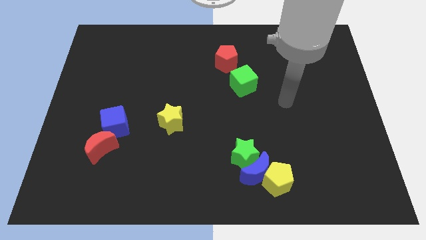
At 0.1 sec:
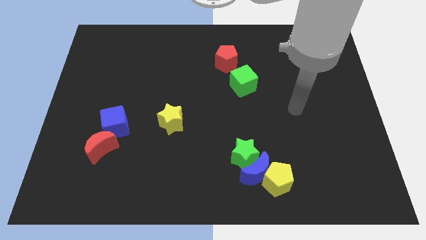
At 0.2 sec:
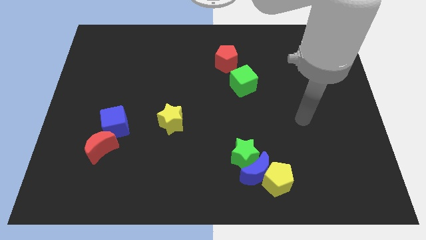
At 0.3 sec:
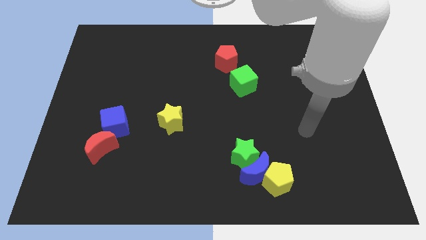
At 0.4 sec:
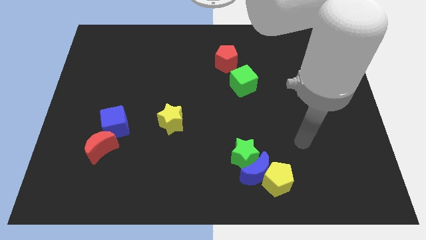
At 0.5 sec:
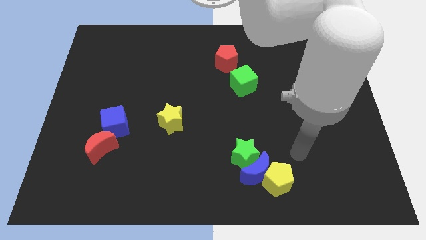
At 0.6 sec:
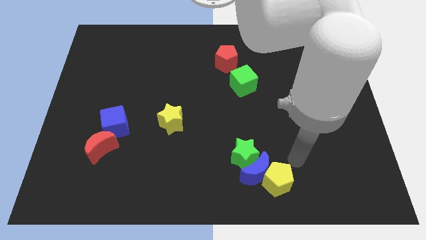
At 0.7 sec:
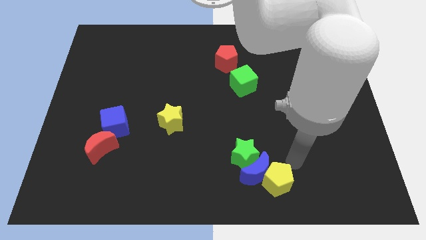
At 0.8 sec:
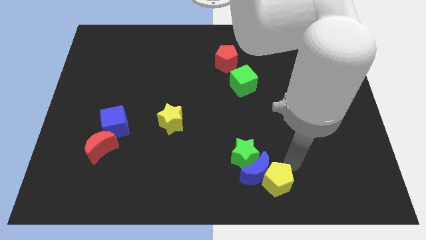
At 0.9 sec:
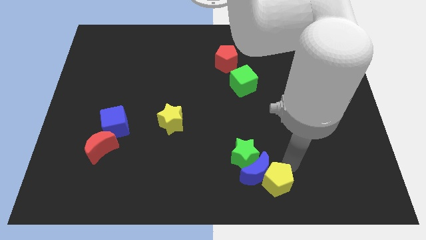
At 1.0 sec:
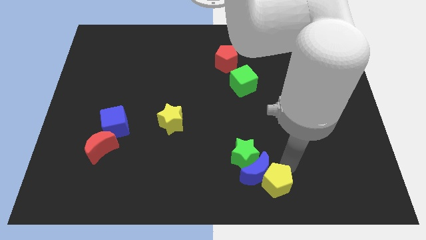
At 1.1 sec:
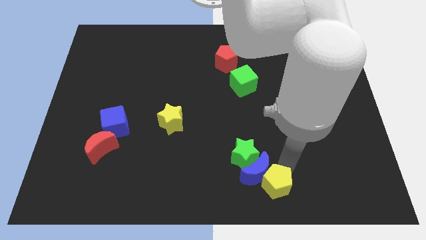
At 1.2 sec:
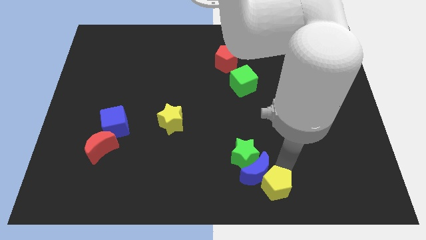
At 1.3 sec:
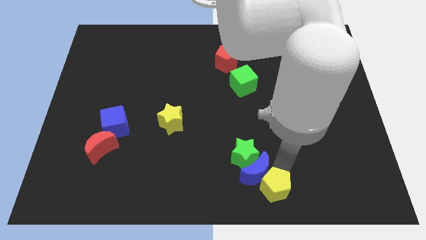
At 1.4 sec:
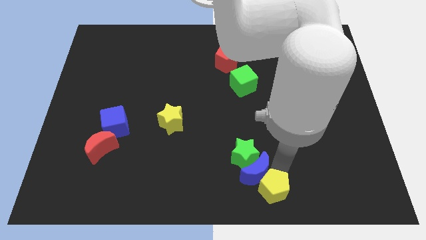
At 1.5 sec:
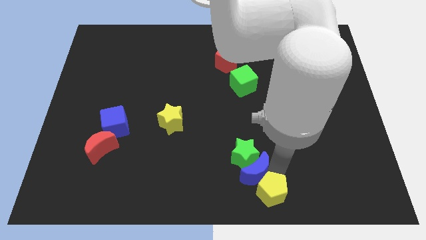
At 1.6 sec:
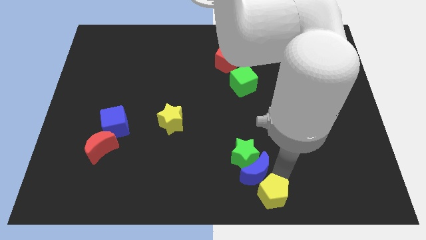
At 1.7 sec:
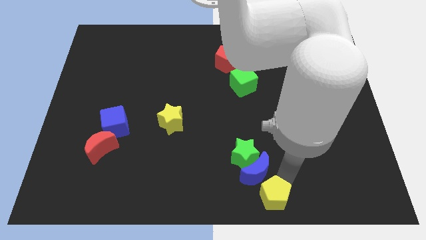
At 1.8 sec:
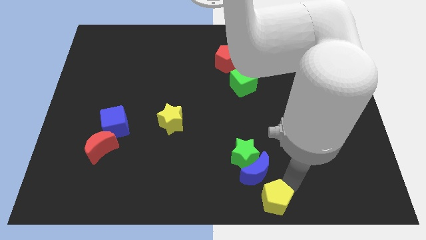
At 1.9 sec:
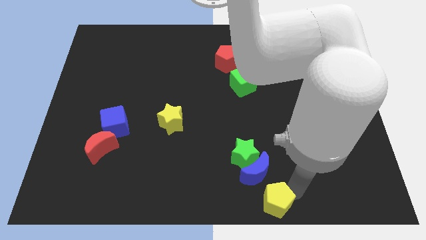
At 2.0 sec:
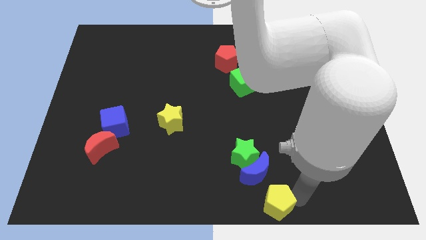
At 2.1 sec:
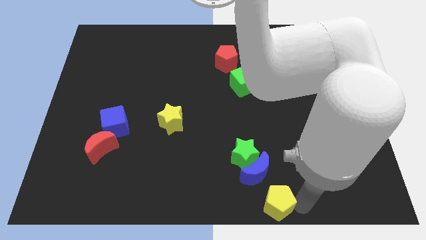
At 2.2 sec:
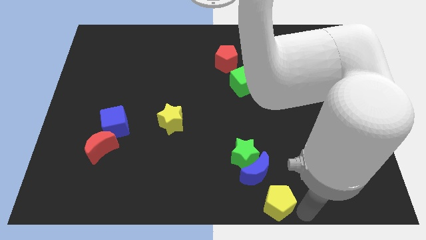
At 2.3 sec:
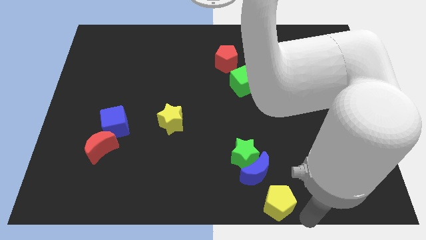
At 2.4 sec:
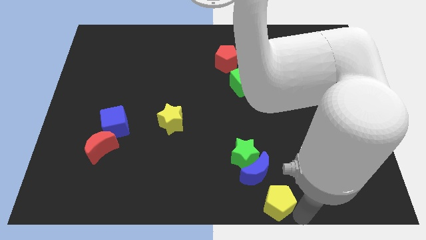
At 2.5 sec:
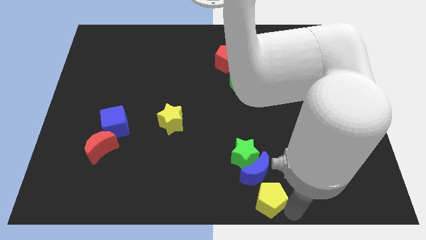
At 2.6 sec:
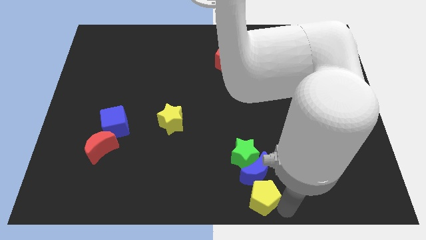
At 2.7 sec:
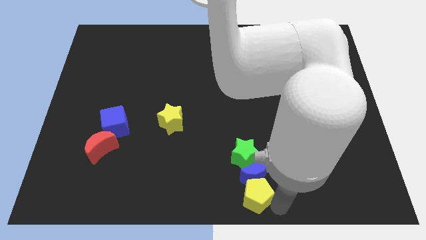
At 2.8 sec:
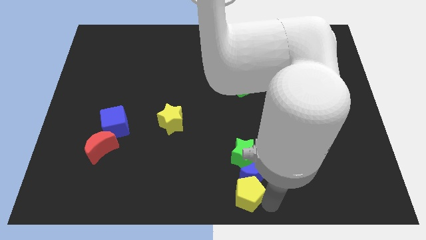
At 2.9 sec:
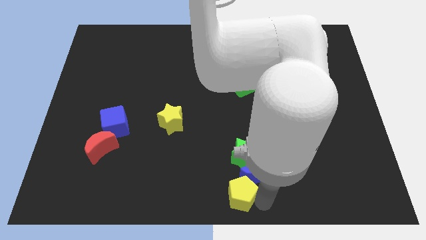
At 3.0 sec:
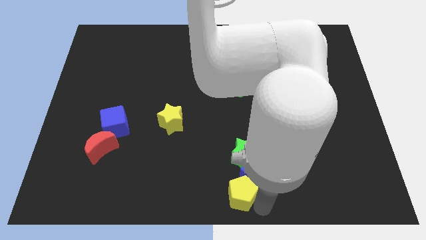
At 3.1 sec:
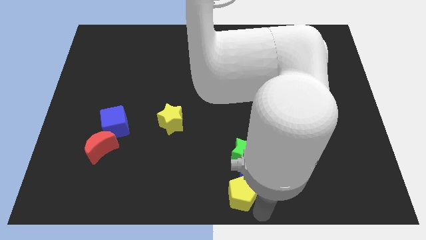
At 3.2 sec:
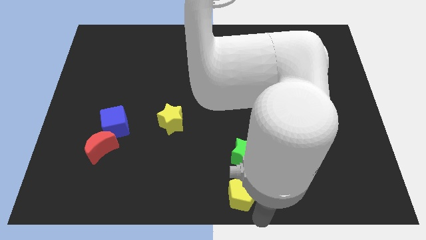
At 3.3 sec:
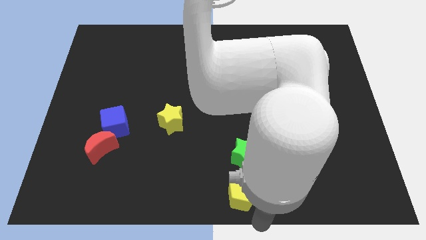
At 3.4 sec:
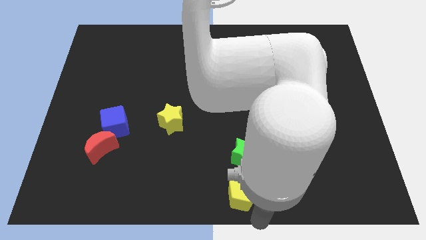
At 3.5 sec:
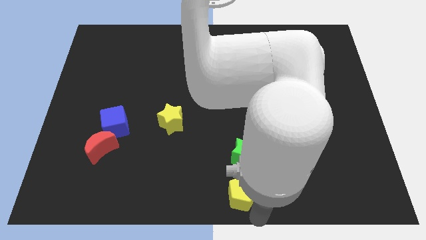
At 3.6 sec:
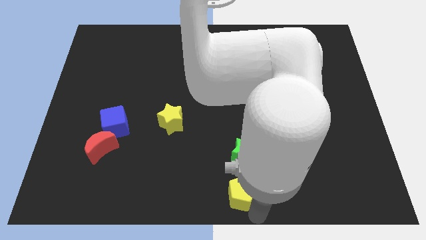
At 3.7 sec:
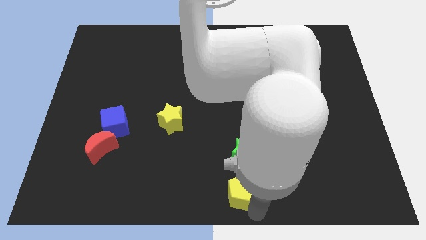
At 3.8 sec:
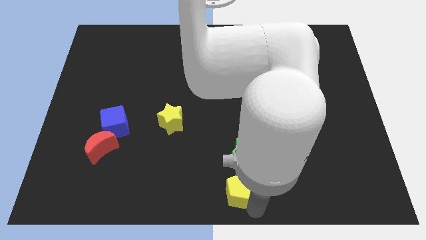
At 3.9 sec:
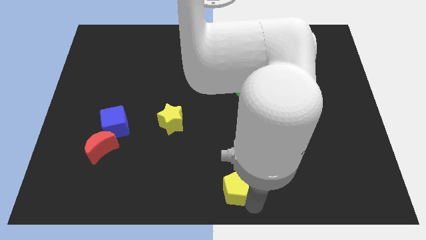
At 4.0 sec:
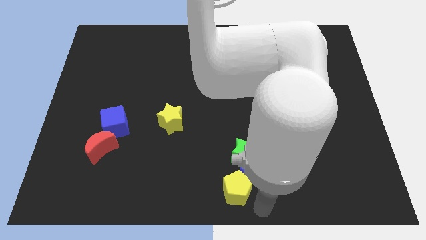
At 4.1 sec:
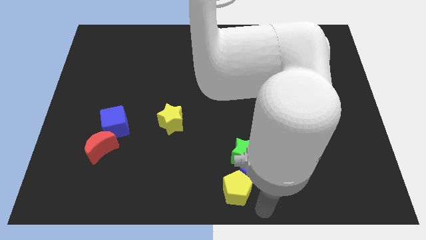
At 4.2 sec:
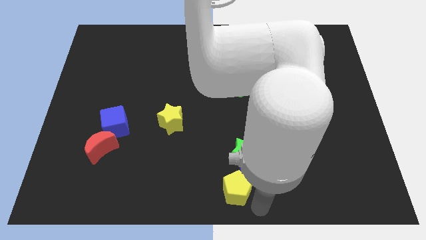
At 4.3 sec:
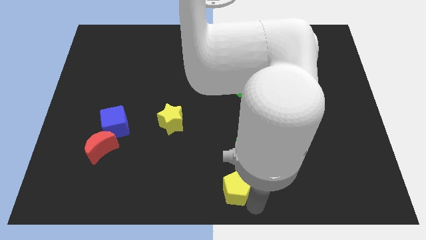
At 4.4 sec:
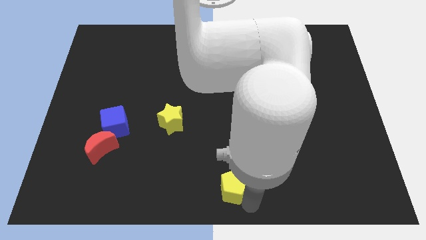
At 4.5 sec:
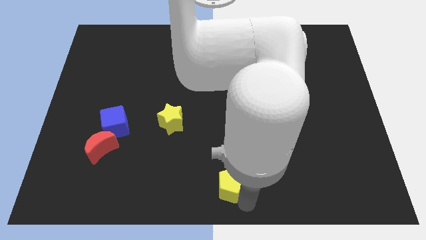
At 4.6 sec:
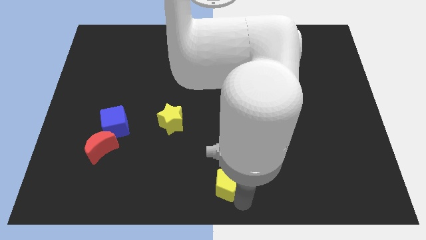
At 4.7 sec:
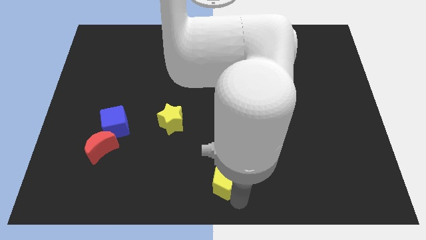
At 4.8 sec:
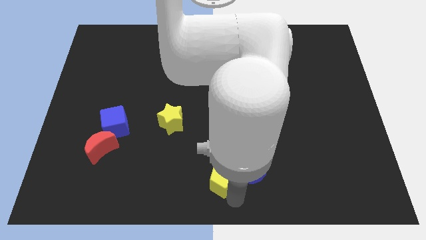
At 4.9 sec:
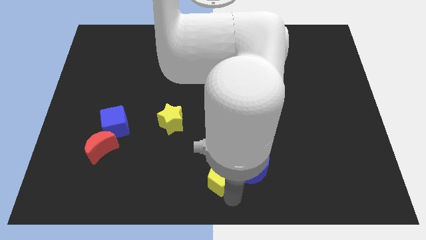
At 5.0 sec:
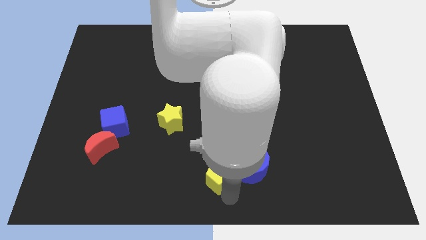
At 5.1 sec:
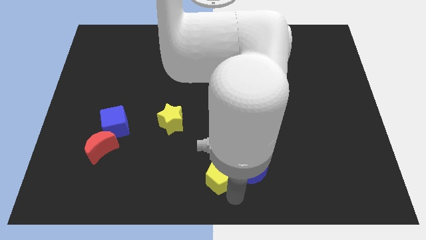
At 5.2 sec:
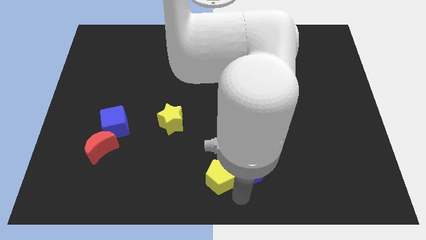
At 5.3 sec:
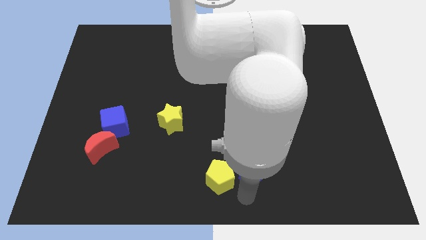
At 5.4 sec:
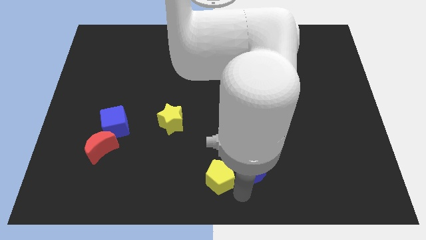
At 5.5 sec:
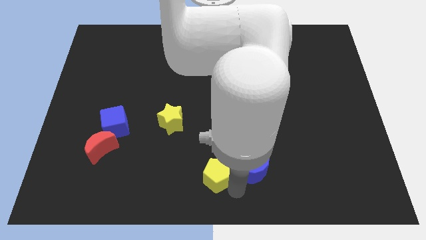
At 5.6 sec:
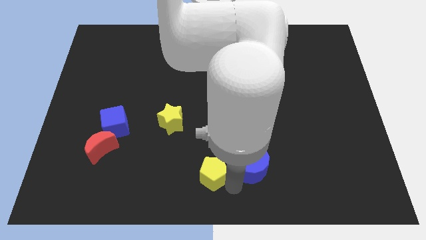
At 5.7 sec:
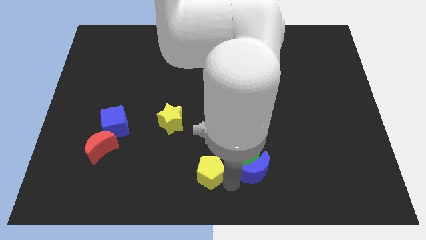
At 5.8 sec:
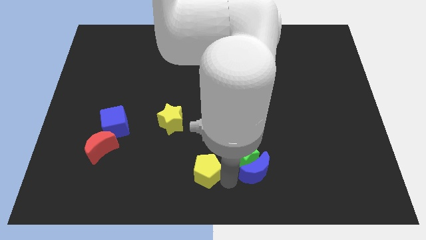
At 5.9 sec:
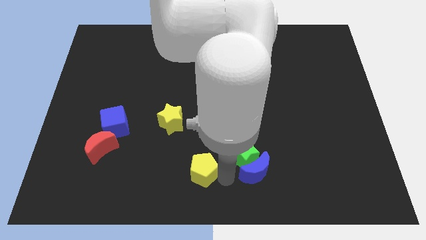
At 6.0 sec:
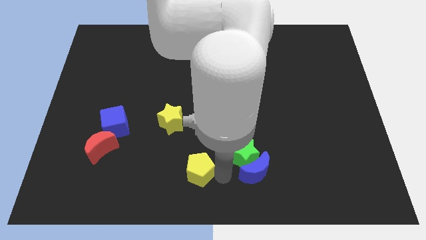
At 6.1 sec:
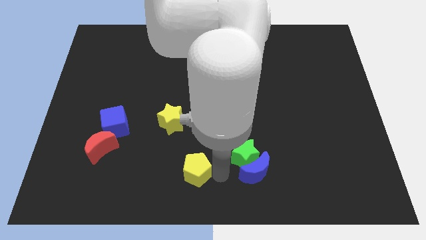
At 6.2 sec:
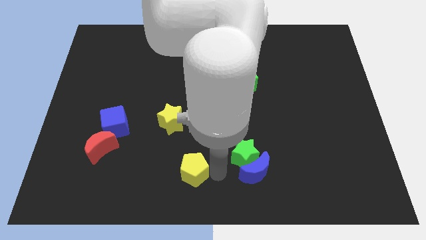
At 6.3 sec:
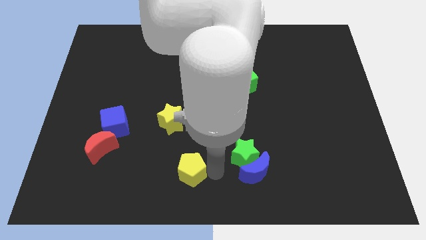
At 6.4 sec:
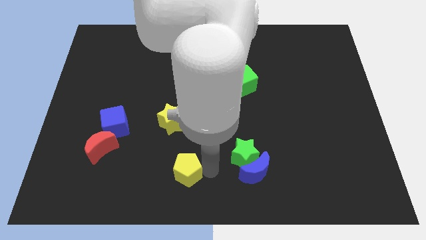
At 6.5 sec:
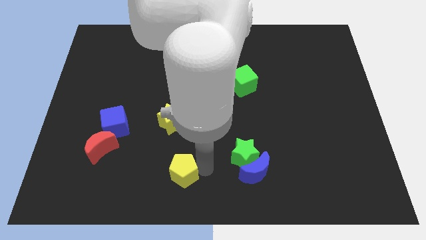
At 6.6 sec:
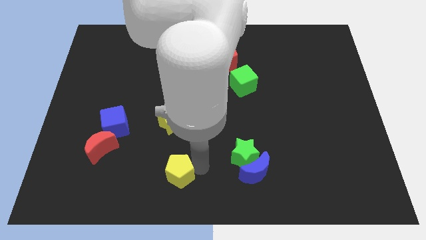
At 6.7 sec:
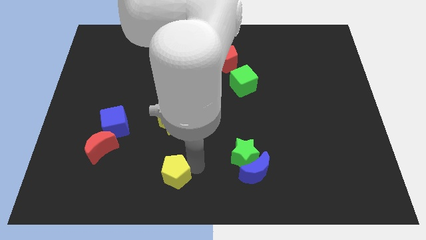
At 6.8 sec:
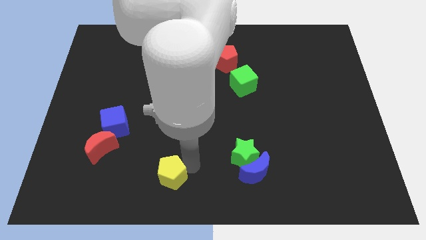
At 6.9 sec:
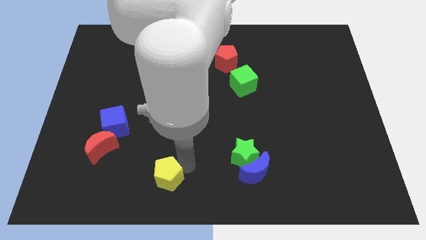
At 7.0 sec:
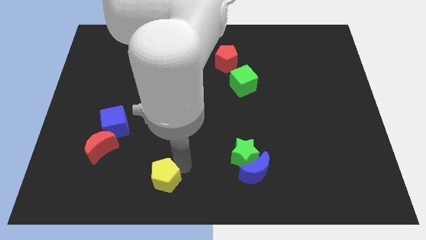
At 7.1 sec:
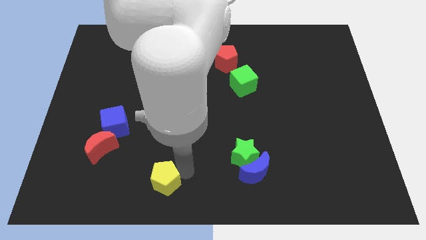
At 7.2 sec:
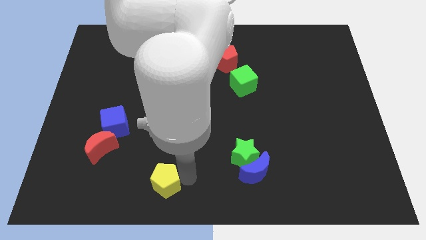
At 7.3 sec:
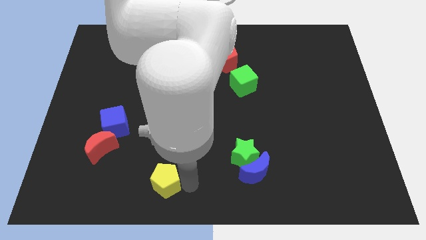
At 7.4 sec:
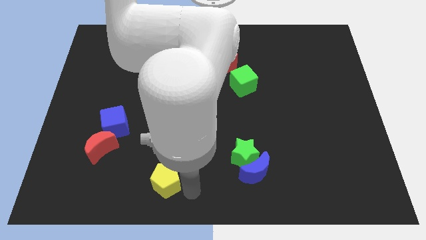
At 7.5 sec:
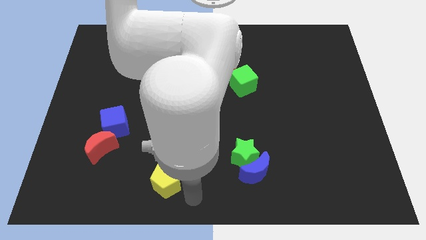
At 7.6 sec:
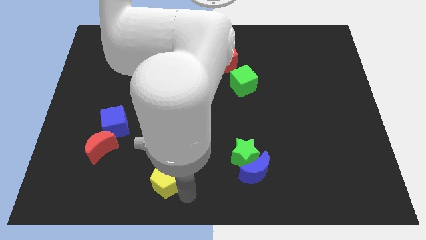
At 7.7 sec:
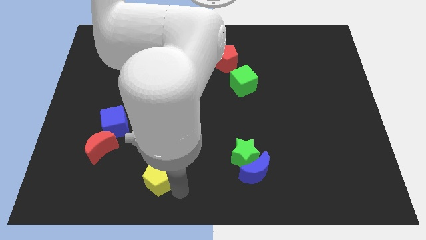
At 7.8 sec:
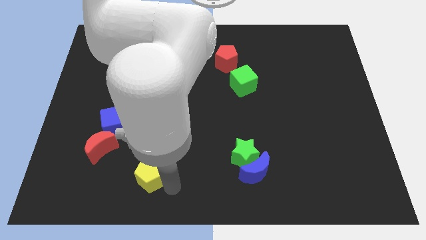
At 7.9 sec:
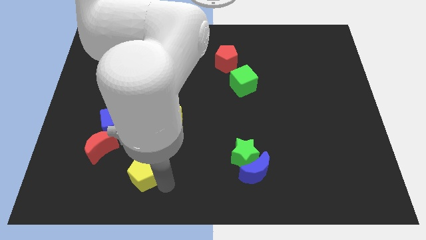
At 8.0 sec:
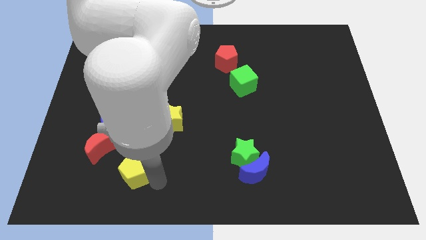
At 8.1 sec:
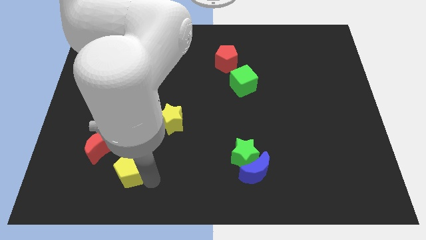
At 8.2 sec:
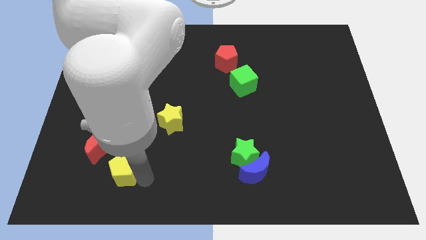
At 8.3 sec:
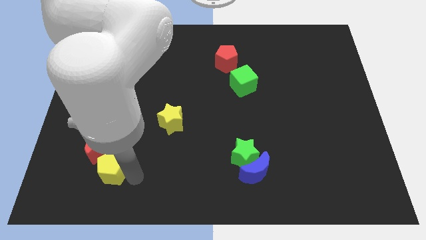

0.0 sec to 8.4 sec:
move the yellow pentagon to the red moon
